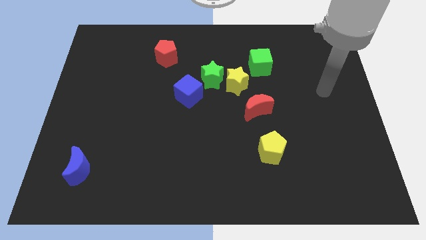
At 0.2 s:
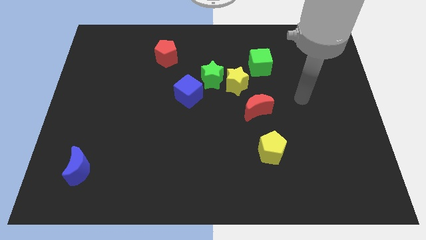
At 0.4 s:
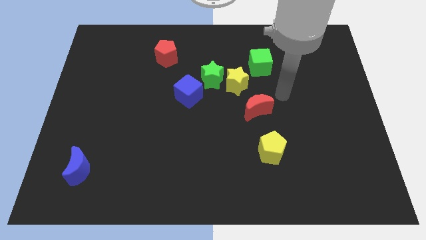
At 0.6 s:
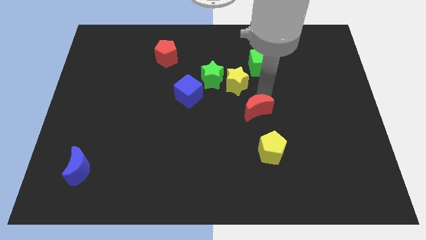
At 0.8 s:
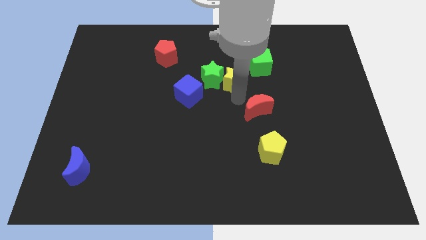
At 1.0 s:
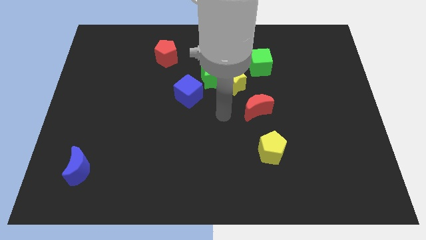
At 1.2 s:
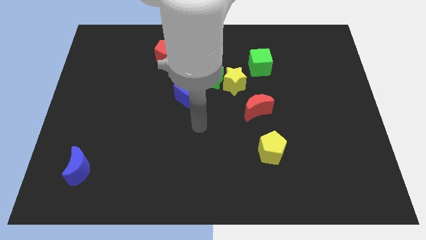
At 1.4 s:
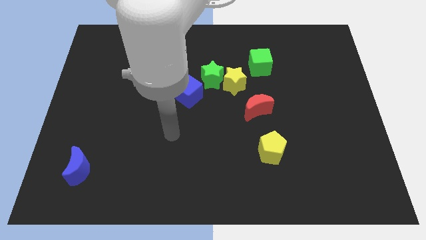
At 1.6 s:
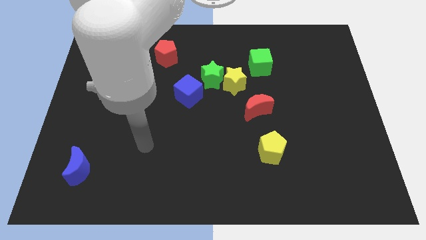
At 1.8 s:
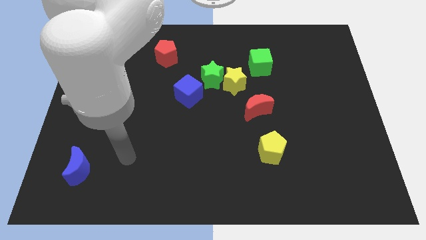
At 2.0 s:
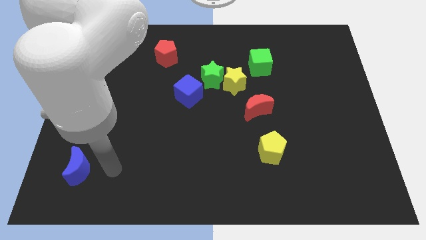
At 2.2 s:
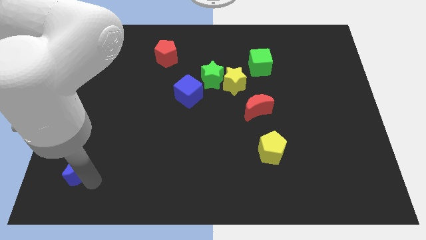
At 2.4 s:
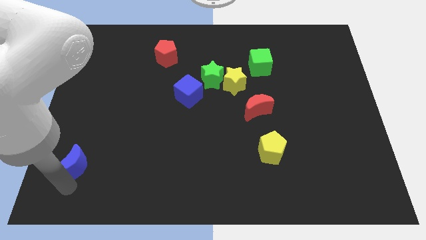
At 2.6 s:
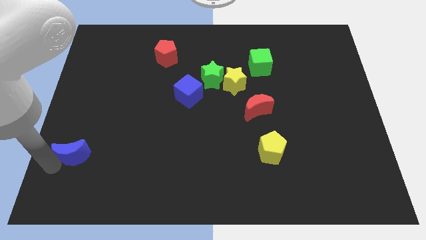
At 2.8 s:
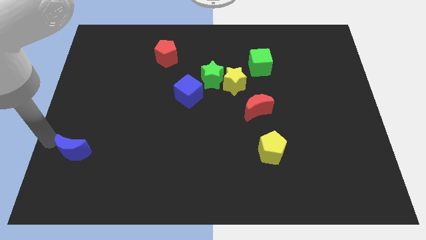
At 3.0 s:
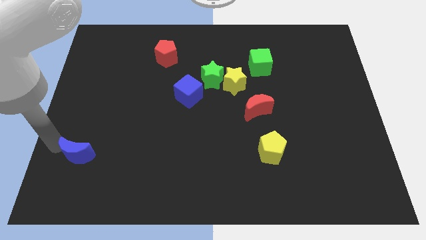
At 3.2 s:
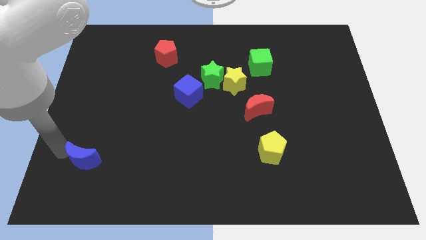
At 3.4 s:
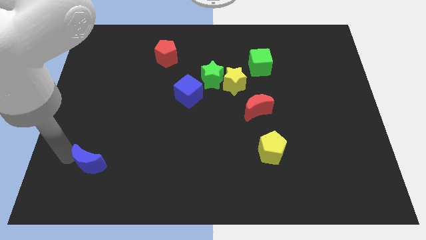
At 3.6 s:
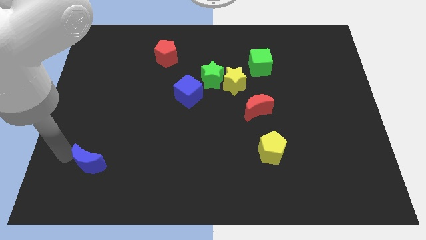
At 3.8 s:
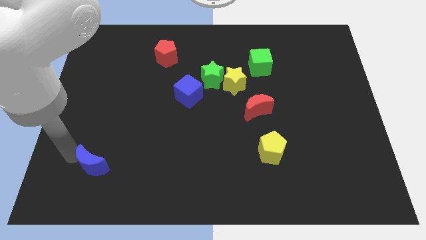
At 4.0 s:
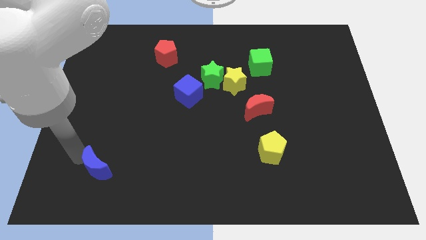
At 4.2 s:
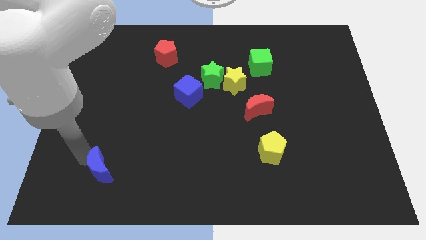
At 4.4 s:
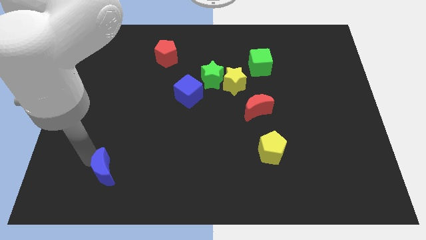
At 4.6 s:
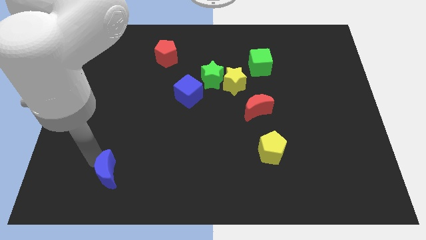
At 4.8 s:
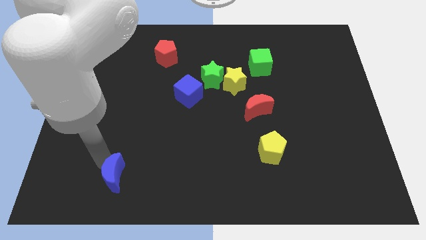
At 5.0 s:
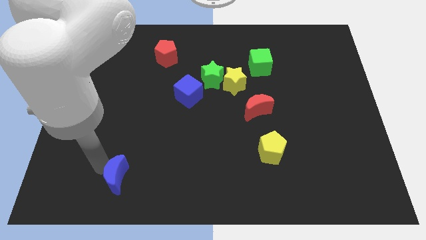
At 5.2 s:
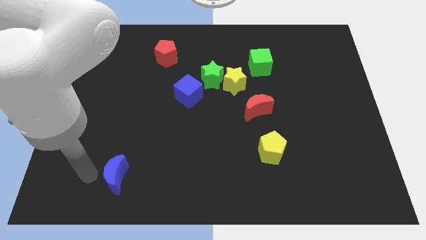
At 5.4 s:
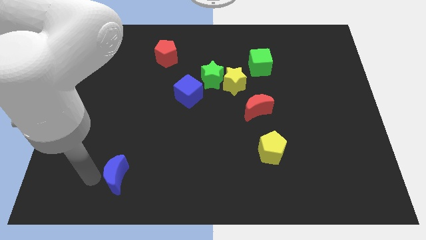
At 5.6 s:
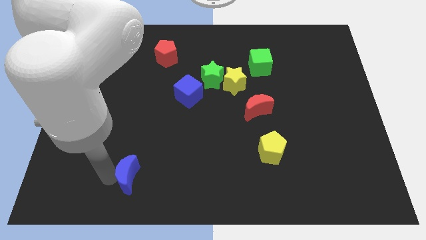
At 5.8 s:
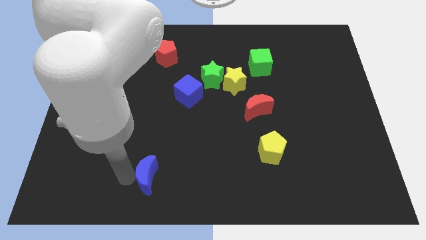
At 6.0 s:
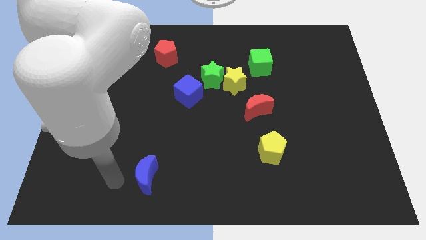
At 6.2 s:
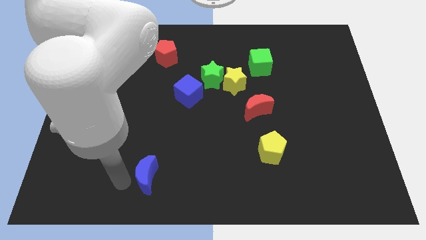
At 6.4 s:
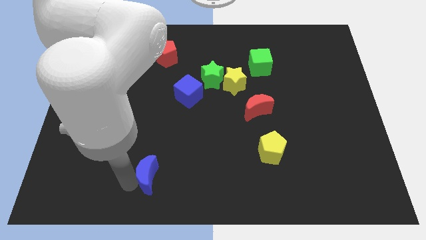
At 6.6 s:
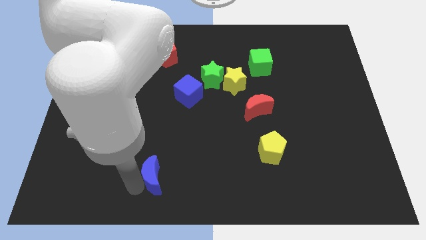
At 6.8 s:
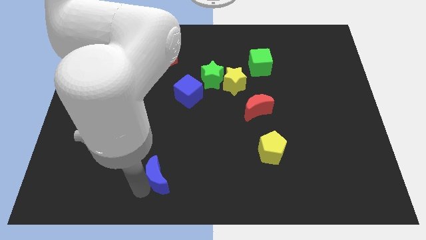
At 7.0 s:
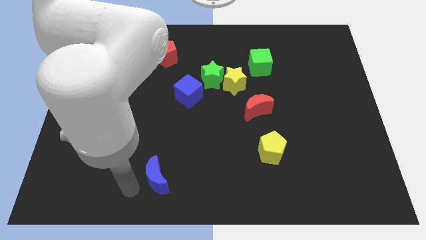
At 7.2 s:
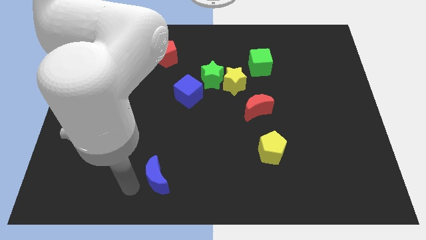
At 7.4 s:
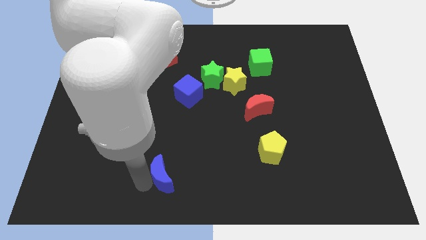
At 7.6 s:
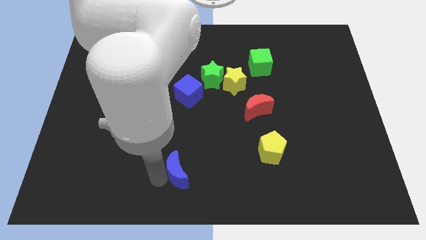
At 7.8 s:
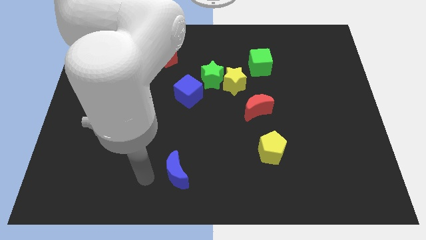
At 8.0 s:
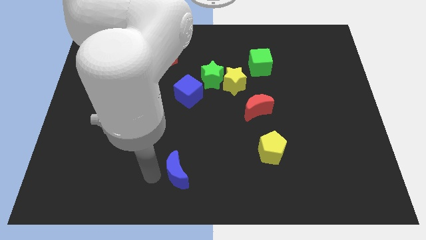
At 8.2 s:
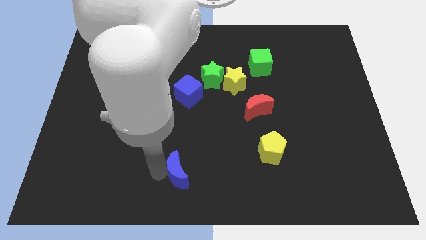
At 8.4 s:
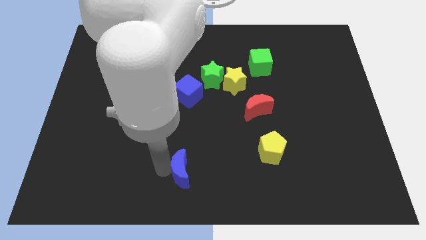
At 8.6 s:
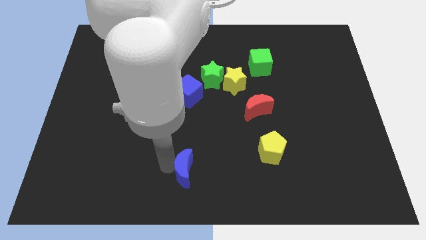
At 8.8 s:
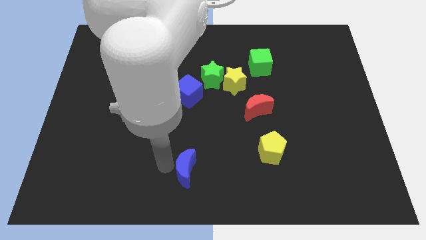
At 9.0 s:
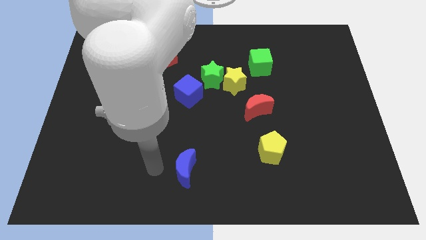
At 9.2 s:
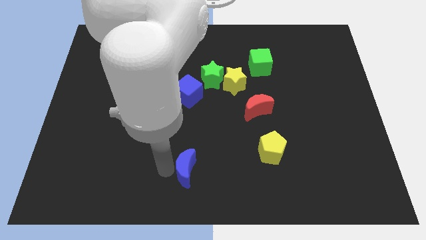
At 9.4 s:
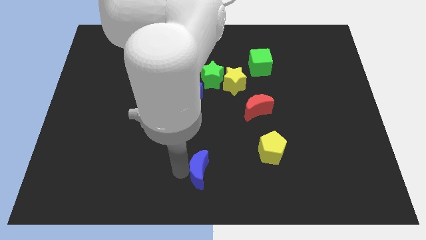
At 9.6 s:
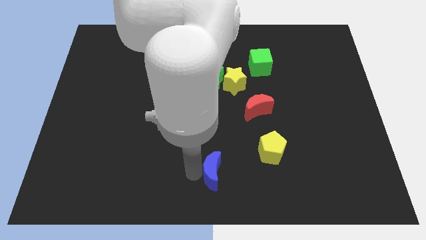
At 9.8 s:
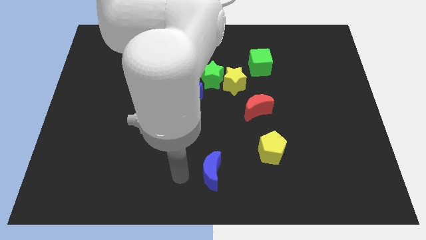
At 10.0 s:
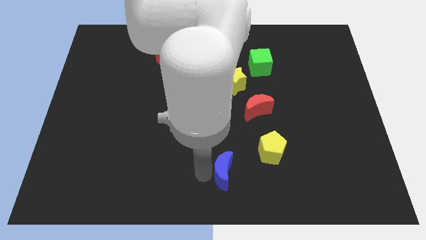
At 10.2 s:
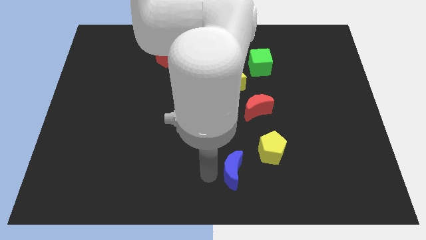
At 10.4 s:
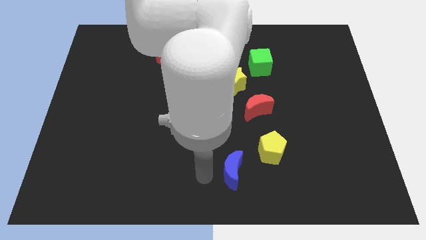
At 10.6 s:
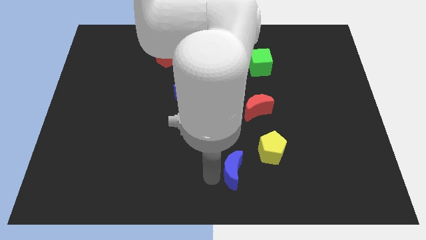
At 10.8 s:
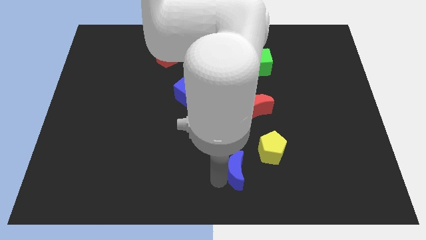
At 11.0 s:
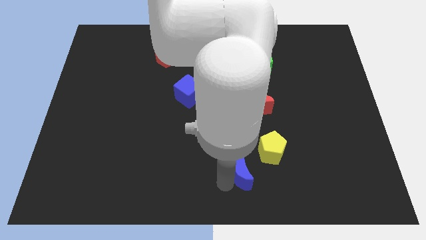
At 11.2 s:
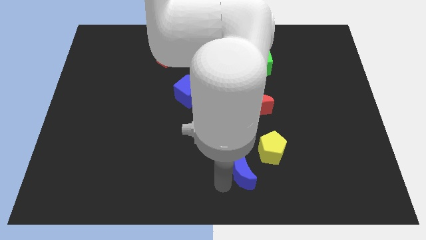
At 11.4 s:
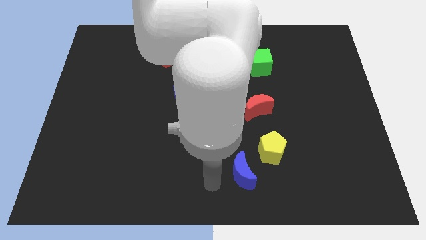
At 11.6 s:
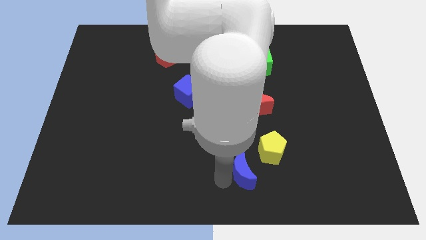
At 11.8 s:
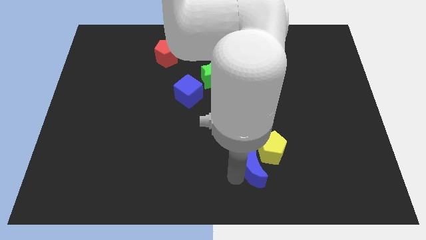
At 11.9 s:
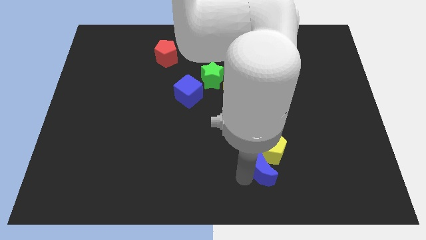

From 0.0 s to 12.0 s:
slide the blue moon below the red moon

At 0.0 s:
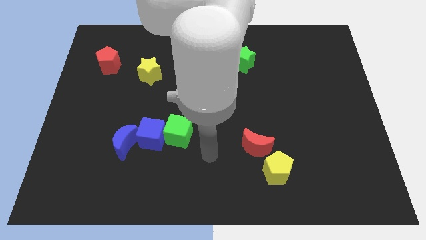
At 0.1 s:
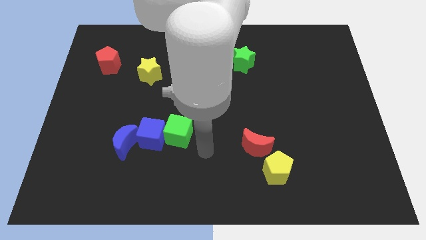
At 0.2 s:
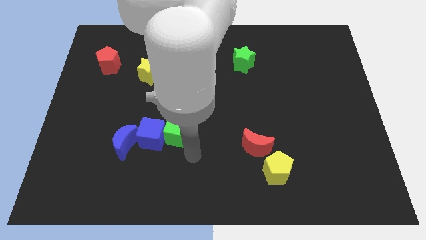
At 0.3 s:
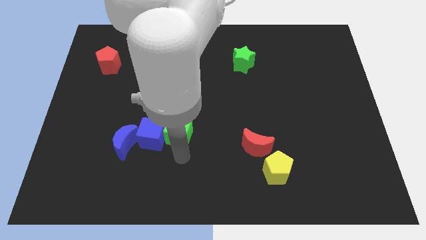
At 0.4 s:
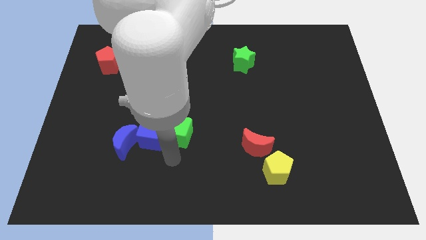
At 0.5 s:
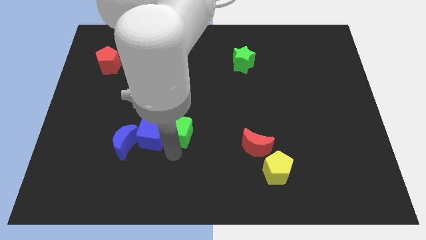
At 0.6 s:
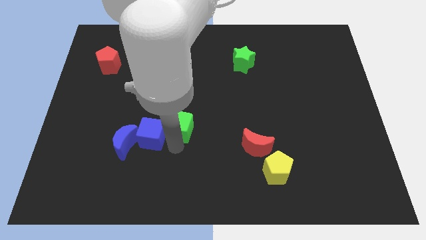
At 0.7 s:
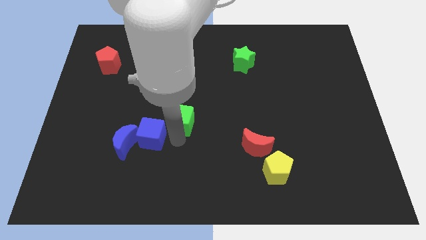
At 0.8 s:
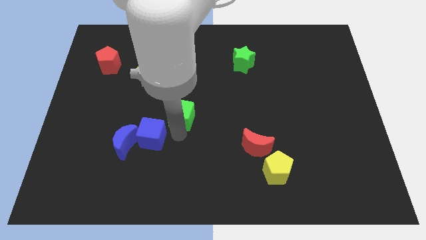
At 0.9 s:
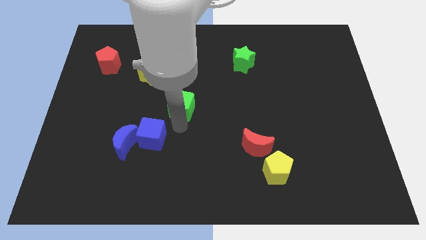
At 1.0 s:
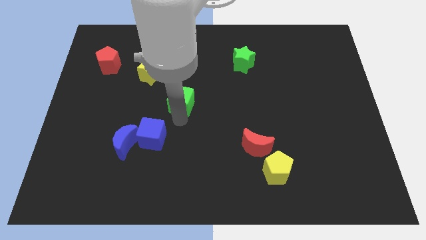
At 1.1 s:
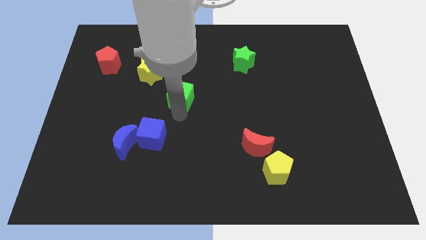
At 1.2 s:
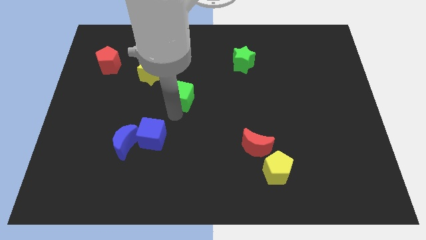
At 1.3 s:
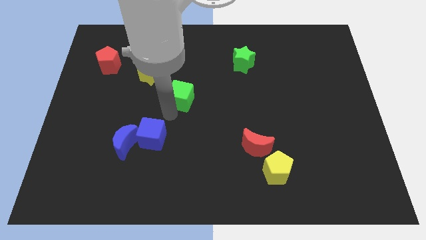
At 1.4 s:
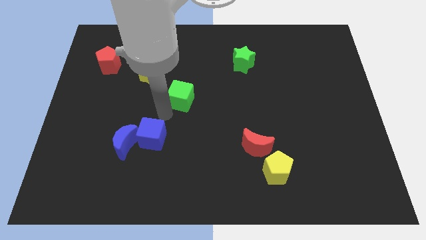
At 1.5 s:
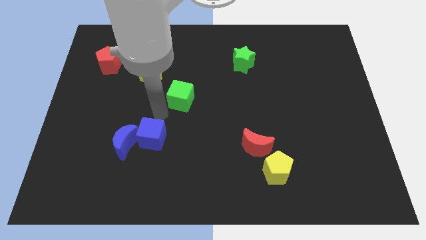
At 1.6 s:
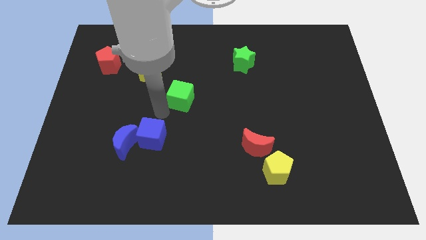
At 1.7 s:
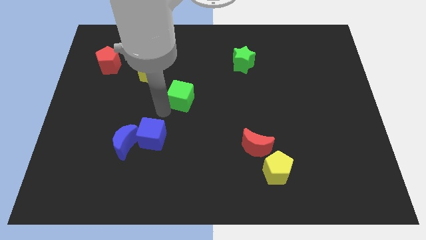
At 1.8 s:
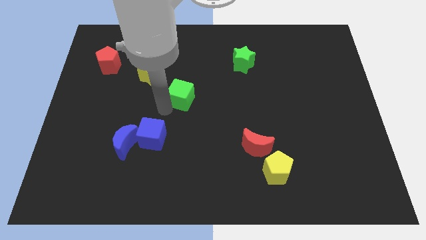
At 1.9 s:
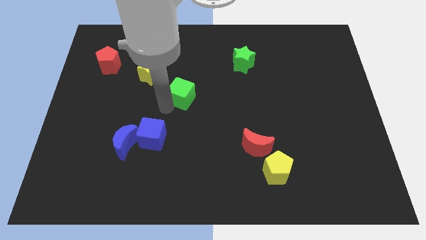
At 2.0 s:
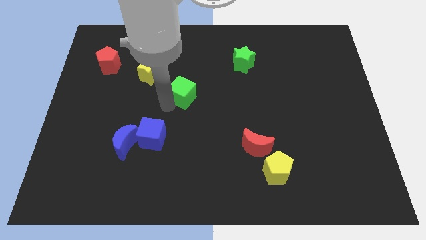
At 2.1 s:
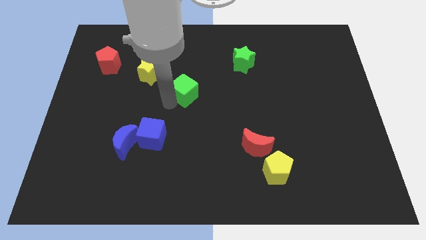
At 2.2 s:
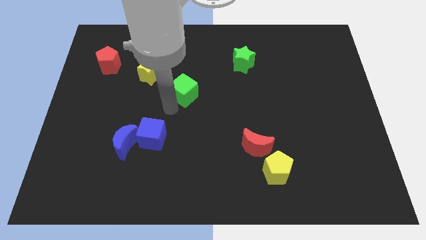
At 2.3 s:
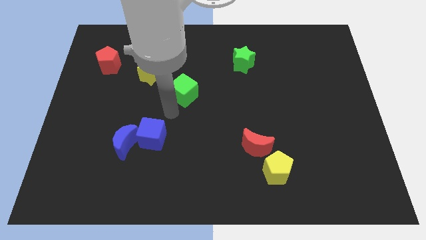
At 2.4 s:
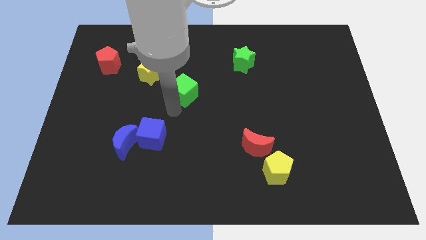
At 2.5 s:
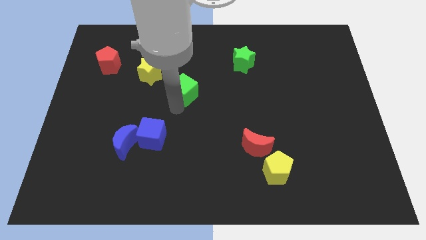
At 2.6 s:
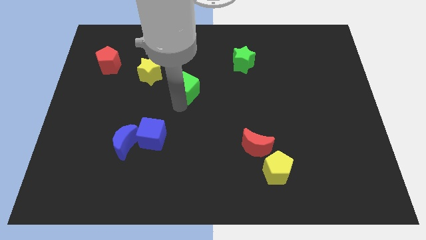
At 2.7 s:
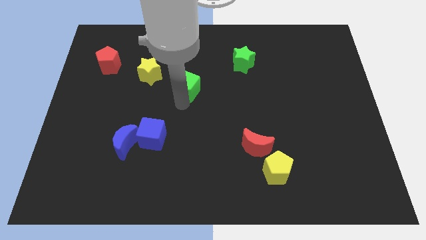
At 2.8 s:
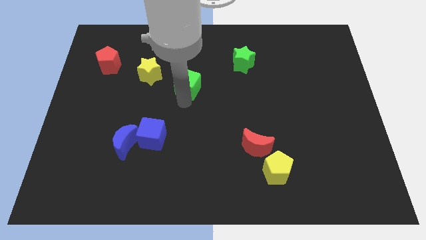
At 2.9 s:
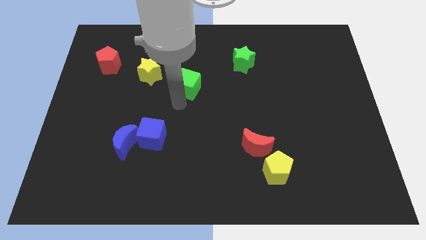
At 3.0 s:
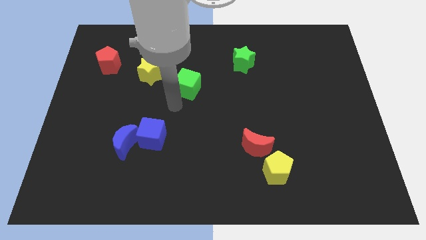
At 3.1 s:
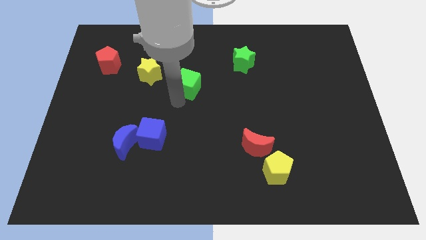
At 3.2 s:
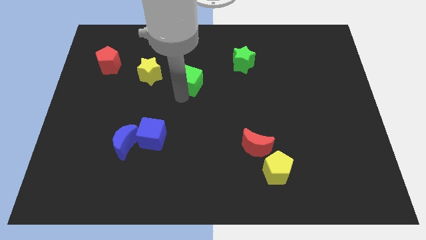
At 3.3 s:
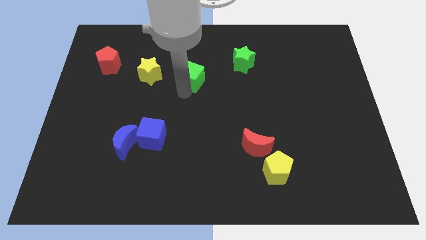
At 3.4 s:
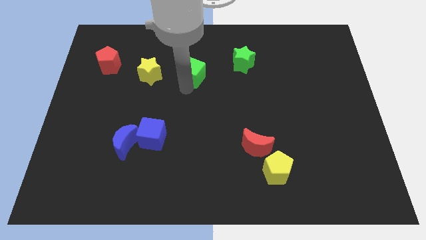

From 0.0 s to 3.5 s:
slide the green cube left of the green star
